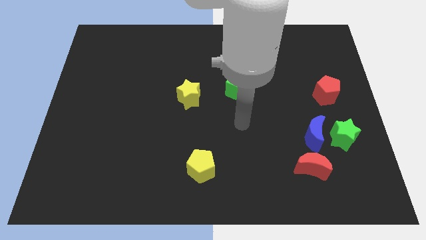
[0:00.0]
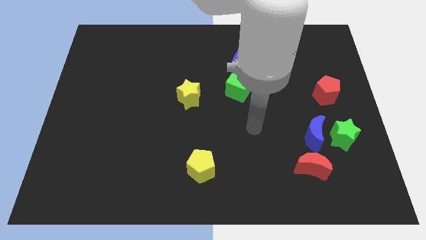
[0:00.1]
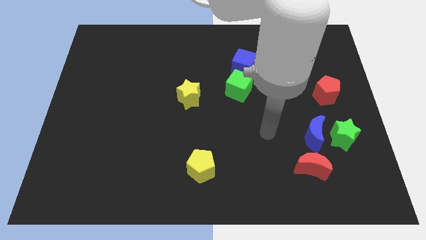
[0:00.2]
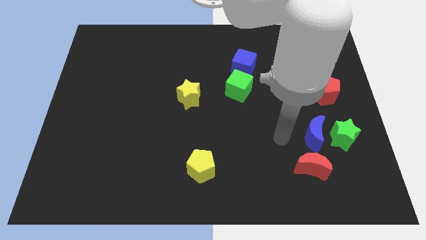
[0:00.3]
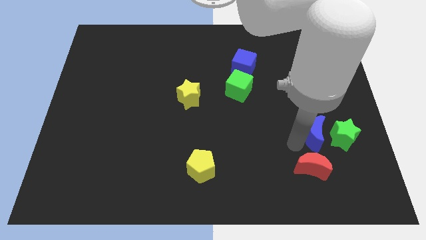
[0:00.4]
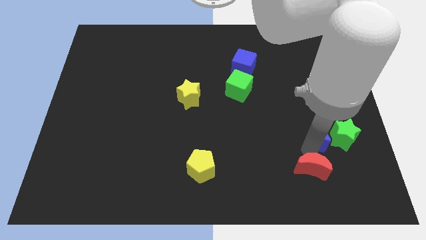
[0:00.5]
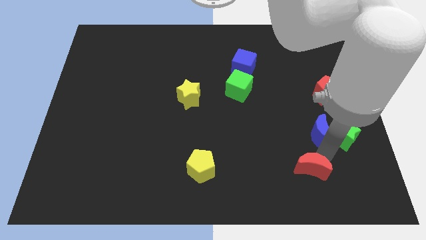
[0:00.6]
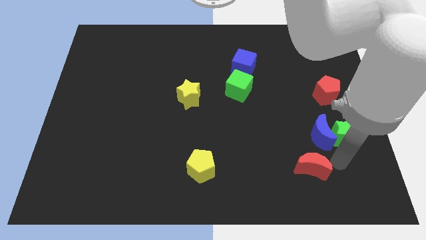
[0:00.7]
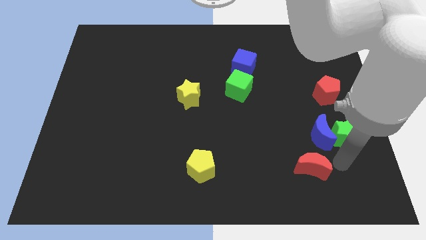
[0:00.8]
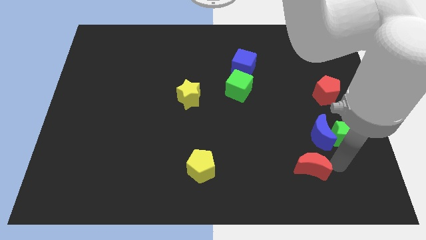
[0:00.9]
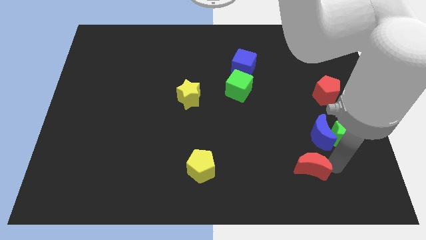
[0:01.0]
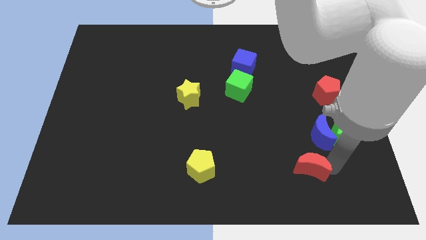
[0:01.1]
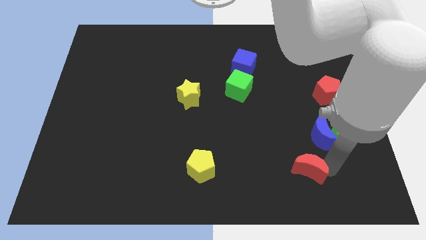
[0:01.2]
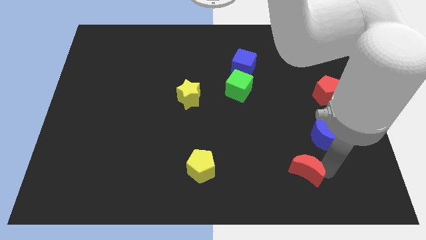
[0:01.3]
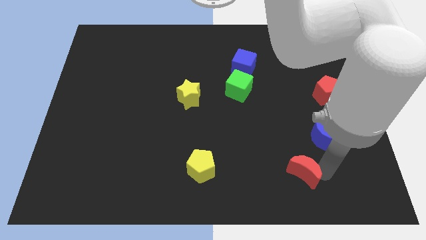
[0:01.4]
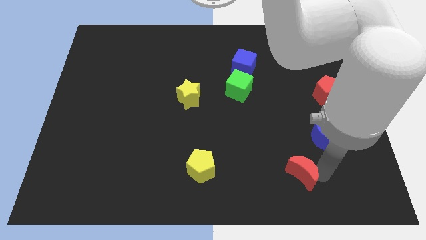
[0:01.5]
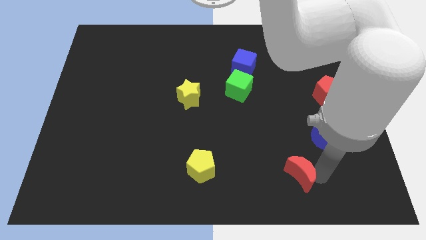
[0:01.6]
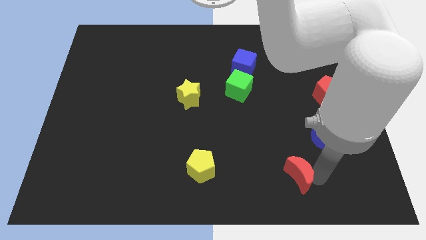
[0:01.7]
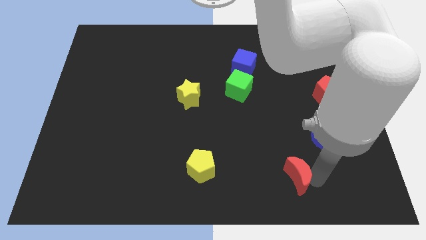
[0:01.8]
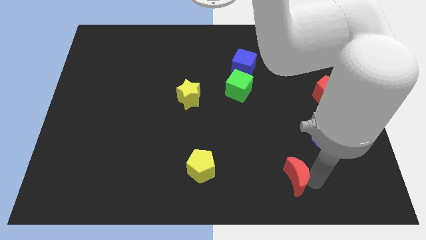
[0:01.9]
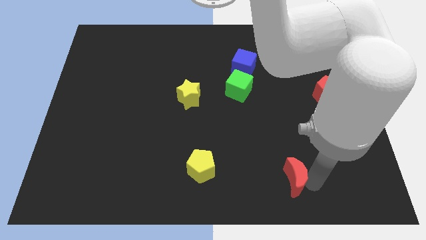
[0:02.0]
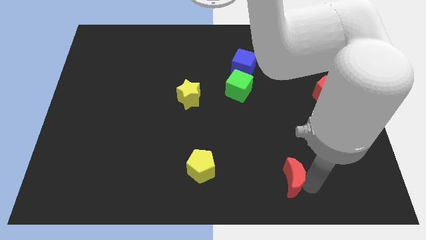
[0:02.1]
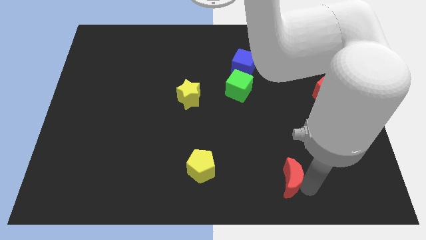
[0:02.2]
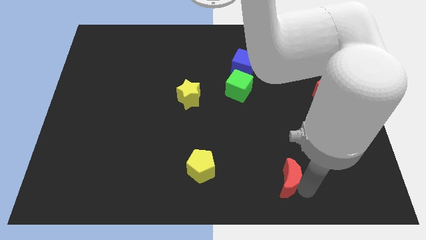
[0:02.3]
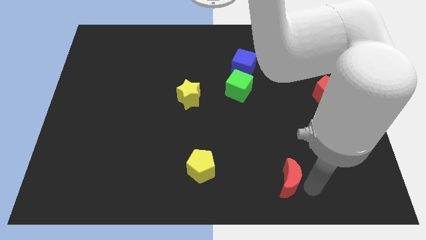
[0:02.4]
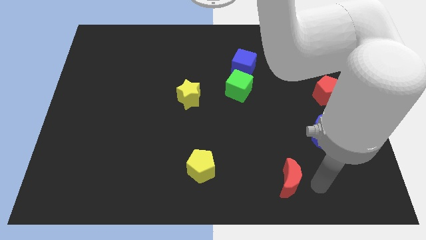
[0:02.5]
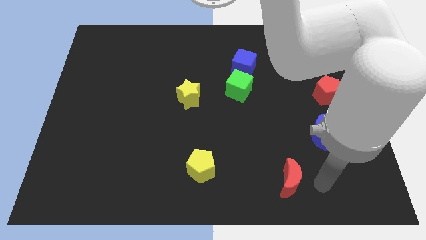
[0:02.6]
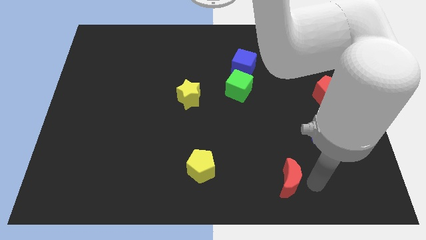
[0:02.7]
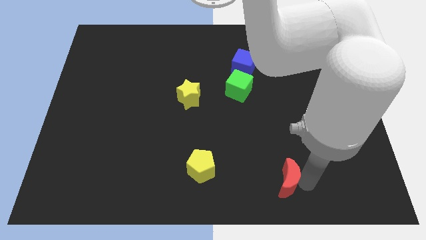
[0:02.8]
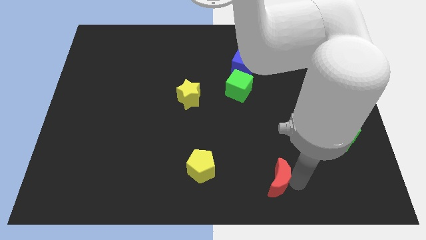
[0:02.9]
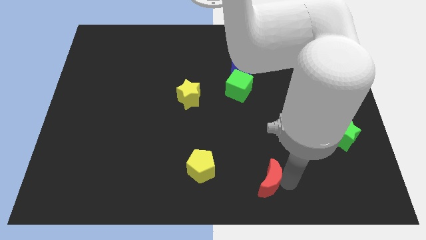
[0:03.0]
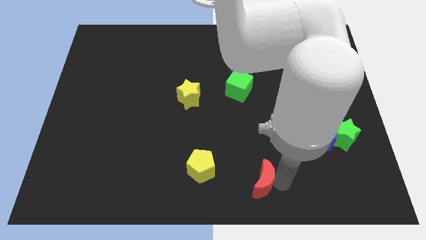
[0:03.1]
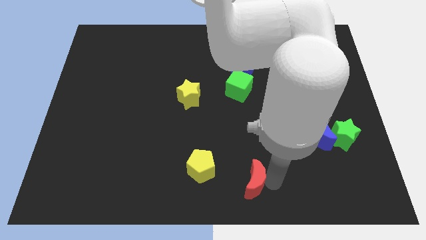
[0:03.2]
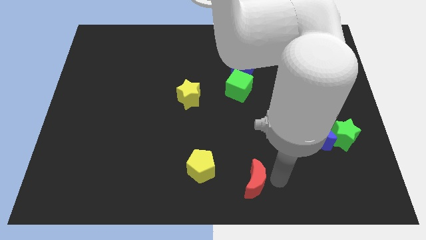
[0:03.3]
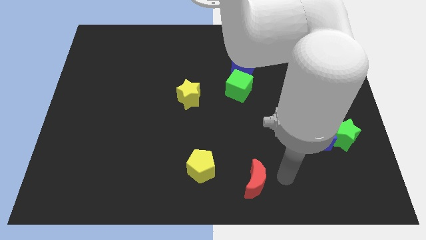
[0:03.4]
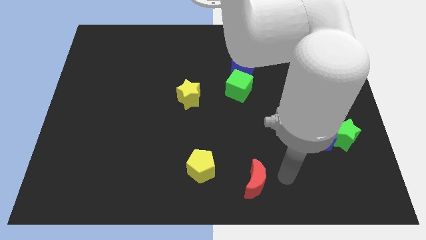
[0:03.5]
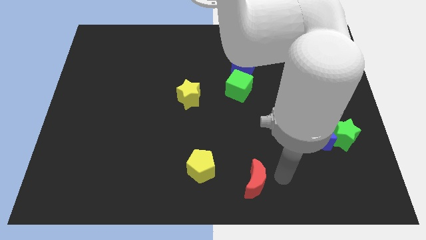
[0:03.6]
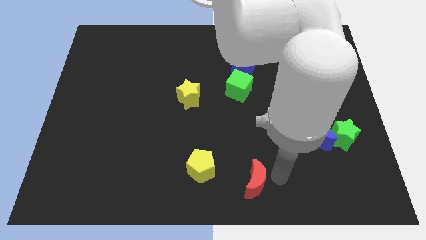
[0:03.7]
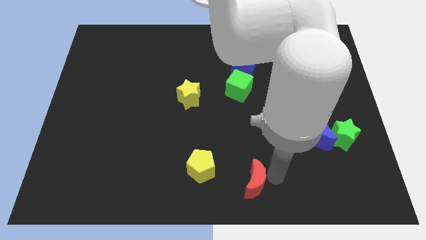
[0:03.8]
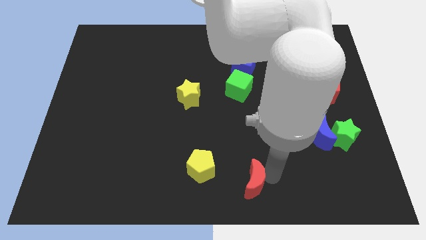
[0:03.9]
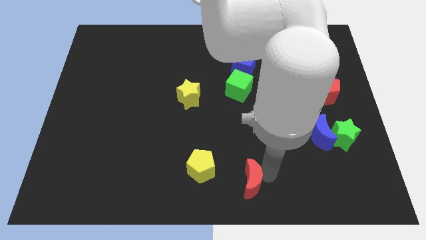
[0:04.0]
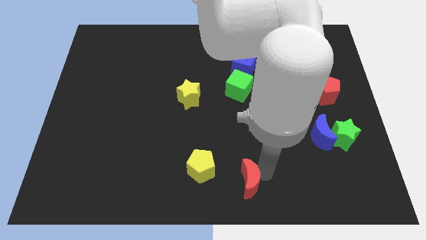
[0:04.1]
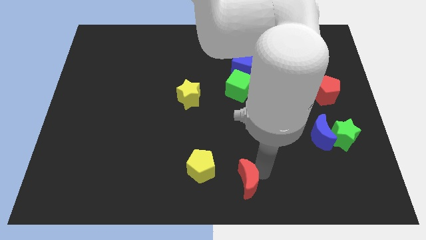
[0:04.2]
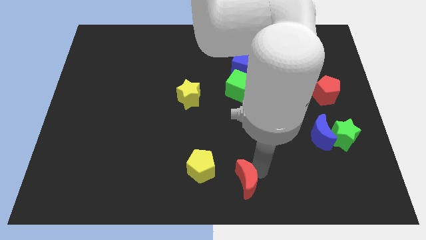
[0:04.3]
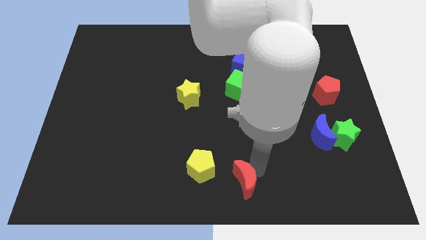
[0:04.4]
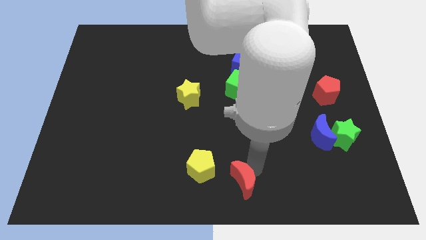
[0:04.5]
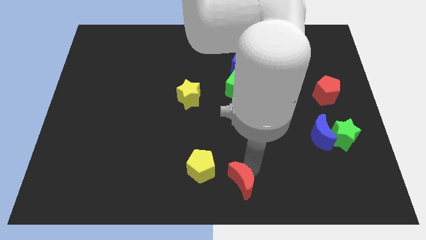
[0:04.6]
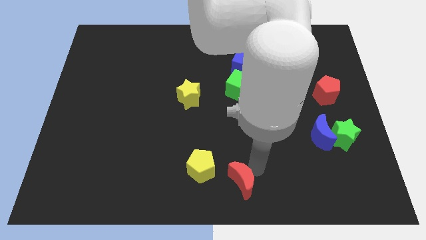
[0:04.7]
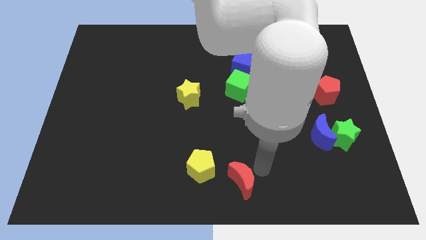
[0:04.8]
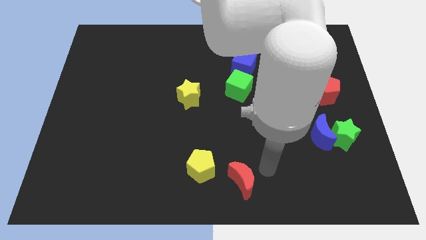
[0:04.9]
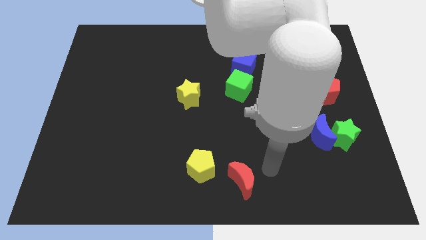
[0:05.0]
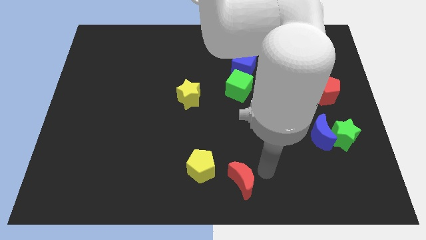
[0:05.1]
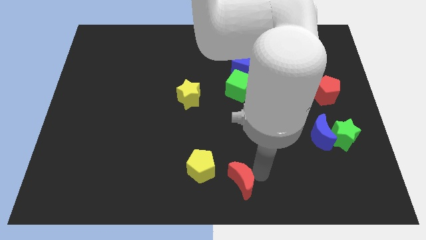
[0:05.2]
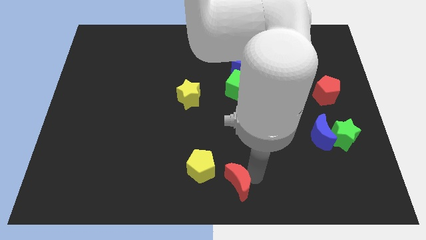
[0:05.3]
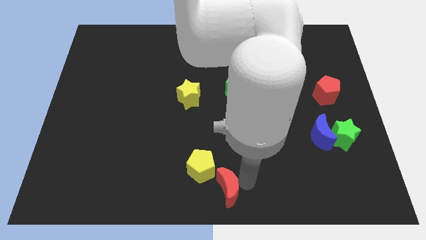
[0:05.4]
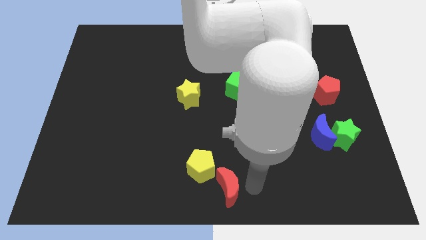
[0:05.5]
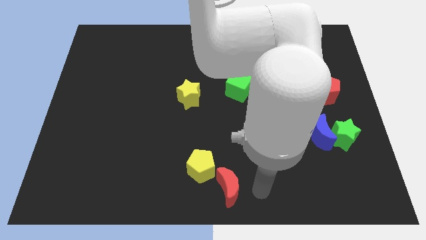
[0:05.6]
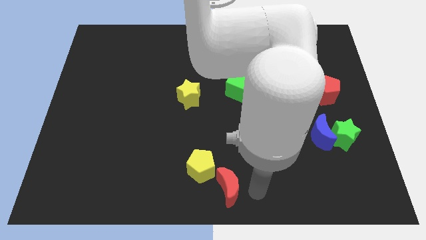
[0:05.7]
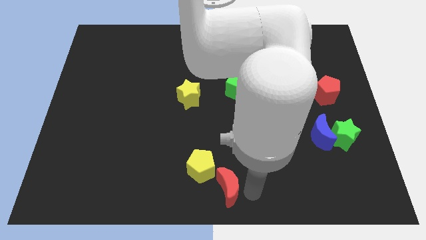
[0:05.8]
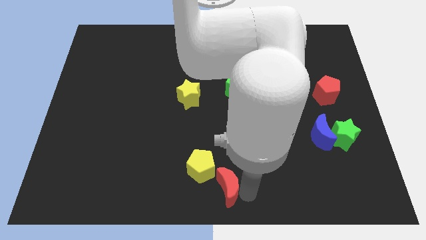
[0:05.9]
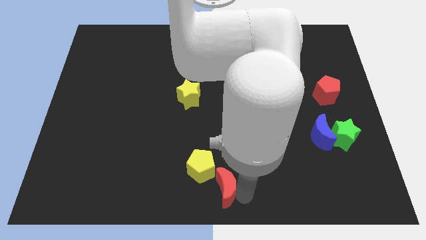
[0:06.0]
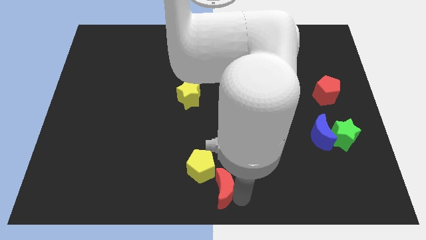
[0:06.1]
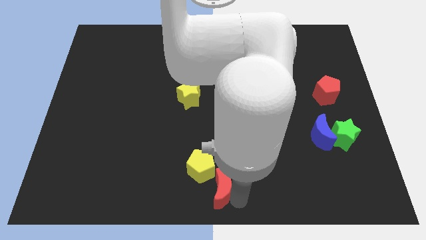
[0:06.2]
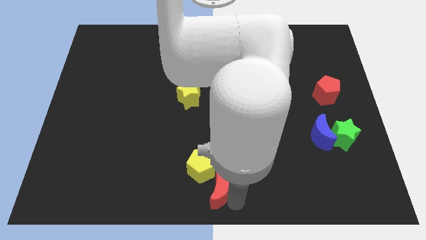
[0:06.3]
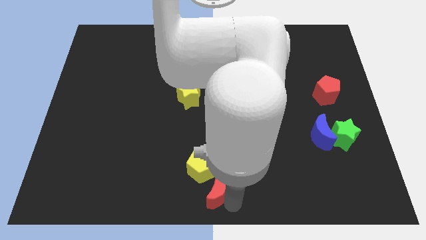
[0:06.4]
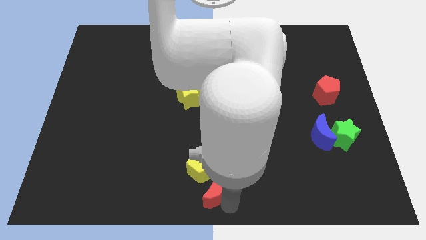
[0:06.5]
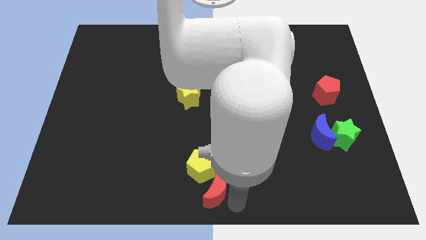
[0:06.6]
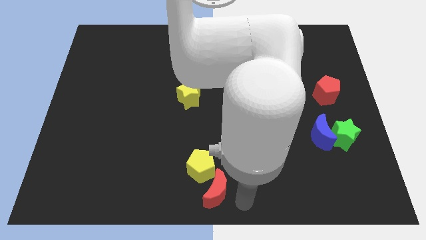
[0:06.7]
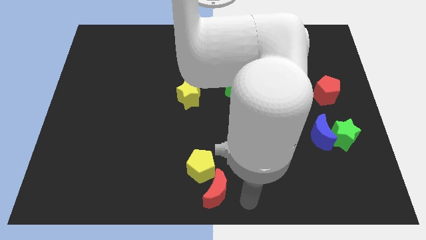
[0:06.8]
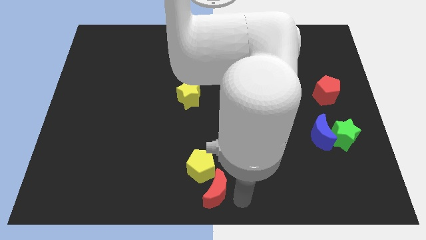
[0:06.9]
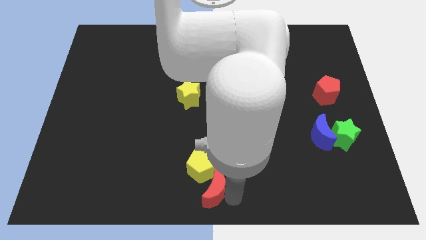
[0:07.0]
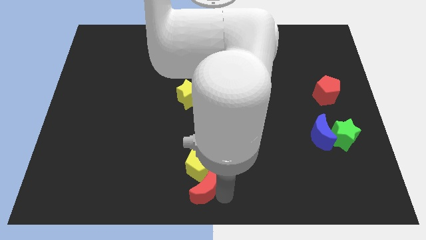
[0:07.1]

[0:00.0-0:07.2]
move the red moon to the left

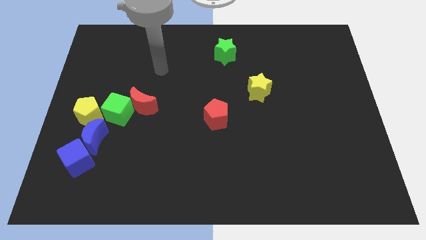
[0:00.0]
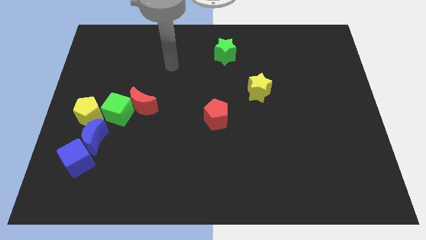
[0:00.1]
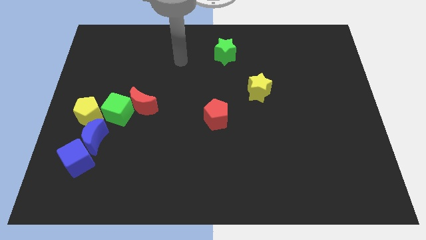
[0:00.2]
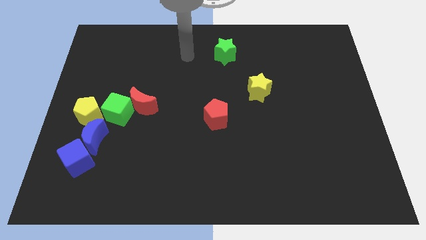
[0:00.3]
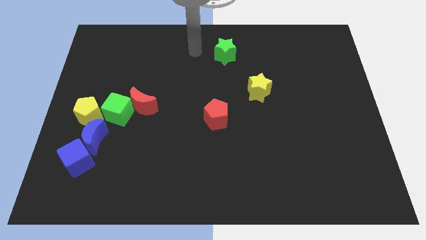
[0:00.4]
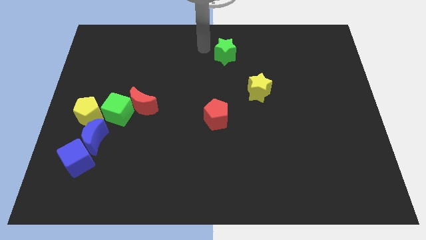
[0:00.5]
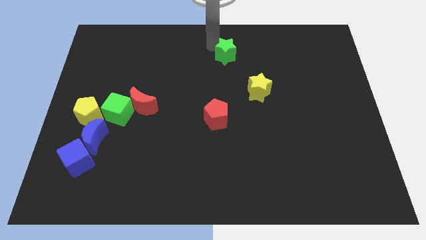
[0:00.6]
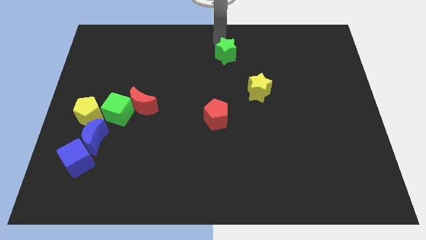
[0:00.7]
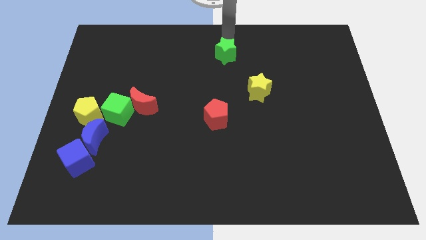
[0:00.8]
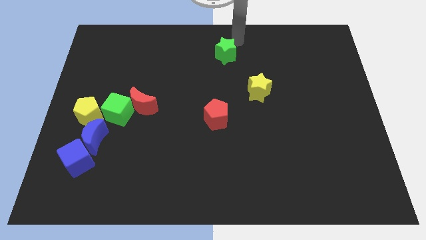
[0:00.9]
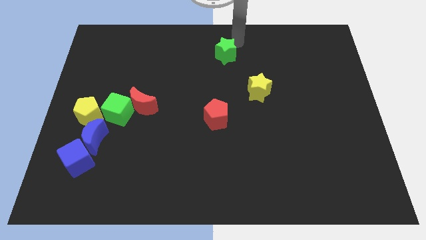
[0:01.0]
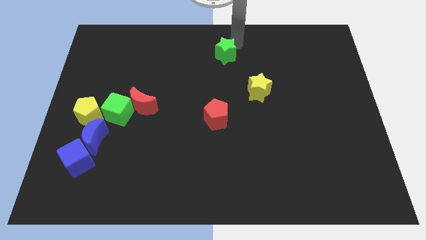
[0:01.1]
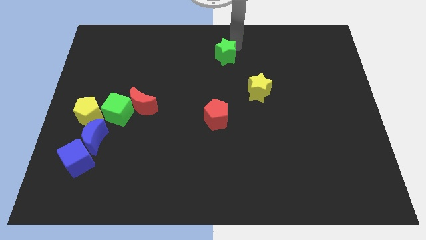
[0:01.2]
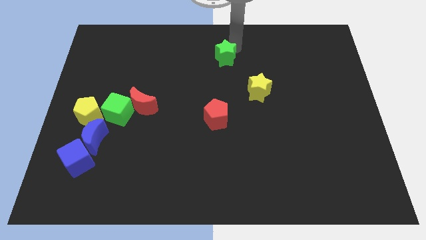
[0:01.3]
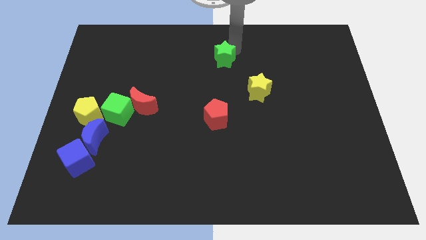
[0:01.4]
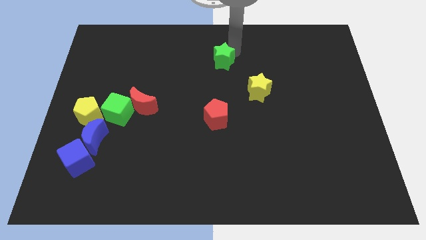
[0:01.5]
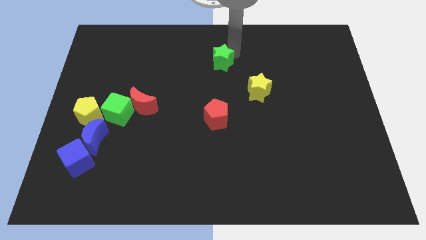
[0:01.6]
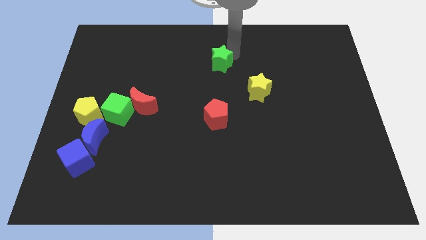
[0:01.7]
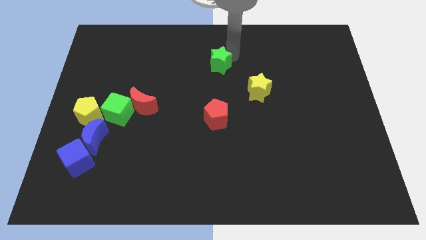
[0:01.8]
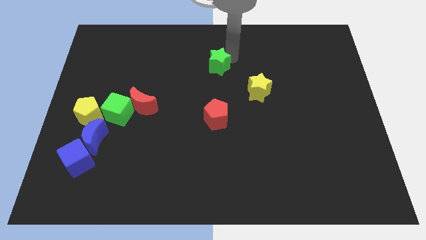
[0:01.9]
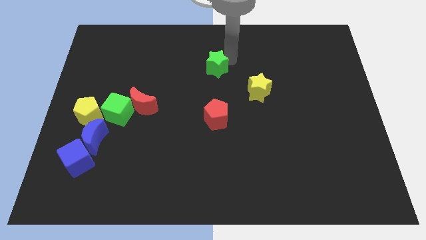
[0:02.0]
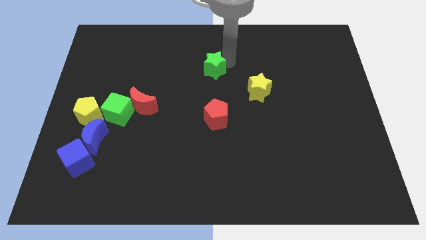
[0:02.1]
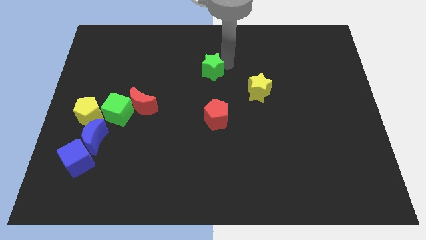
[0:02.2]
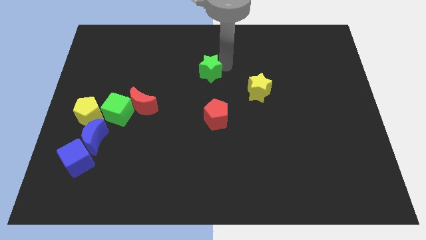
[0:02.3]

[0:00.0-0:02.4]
slightly move the green star down and left diagonally
